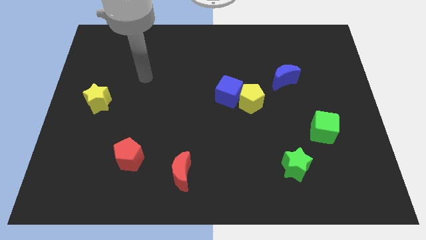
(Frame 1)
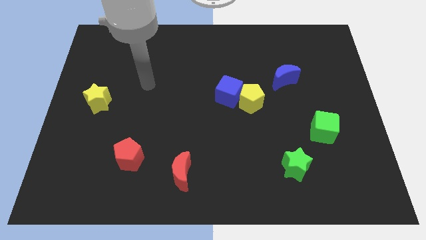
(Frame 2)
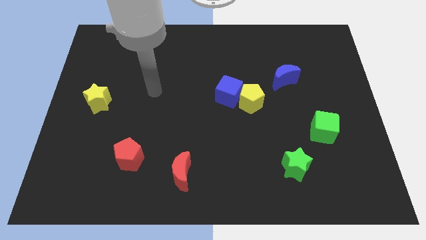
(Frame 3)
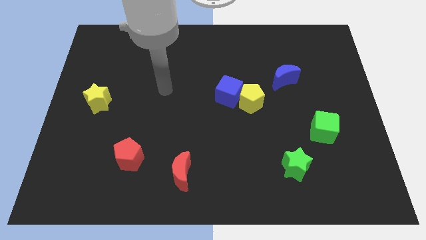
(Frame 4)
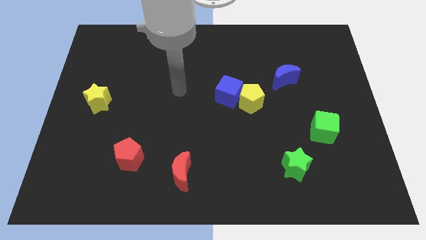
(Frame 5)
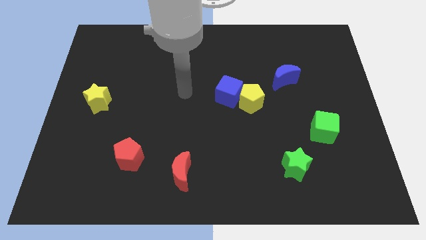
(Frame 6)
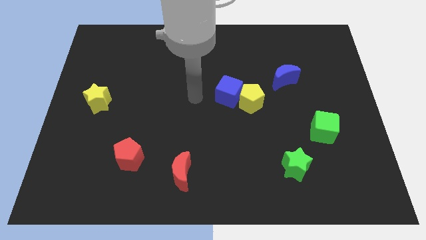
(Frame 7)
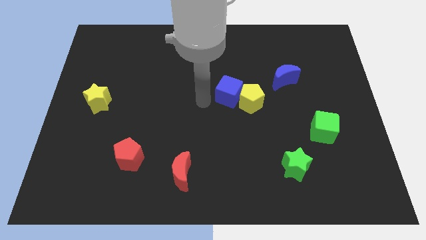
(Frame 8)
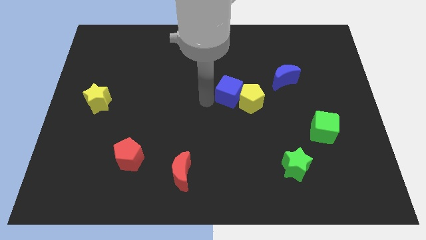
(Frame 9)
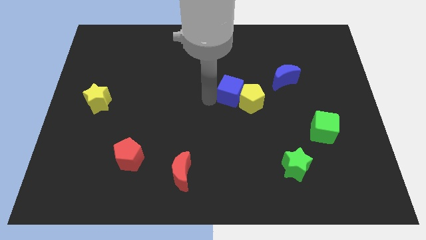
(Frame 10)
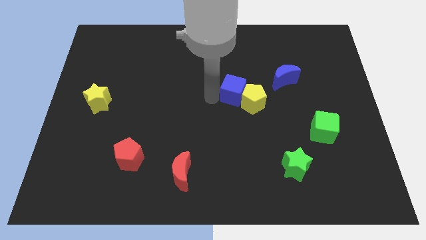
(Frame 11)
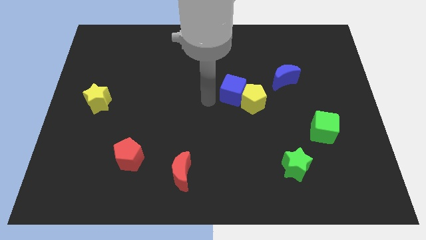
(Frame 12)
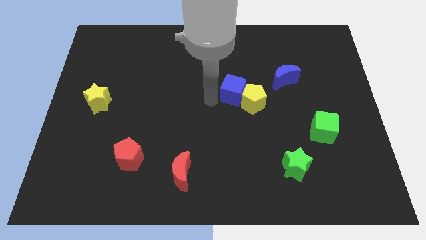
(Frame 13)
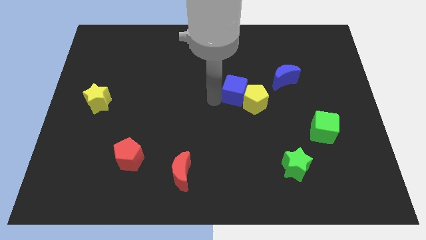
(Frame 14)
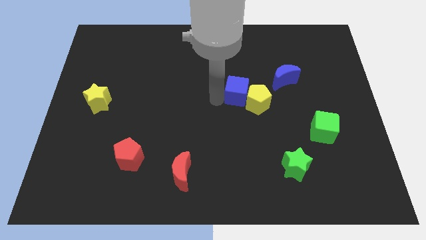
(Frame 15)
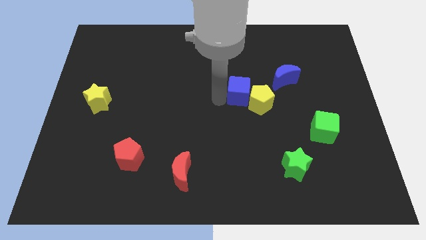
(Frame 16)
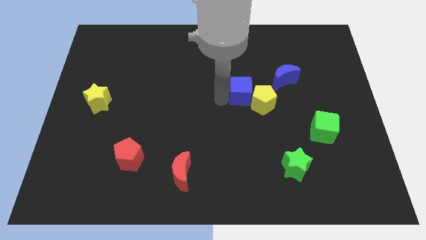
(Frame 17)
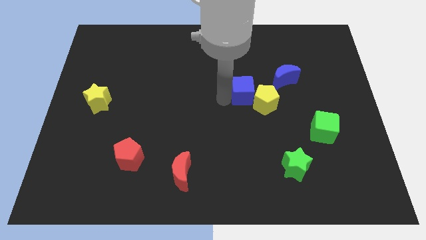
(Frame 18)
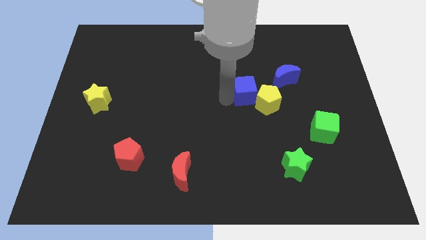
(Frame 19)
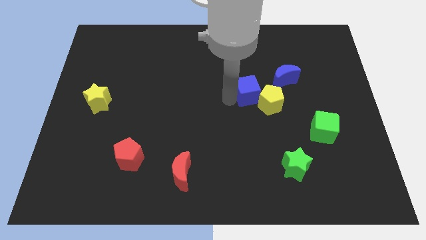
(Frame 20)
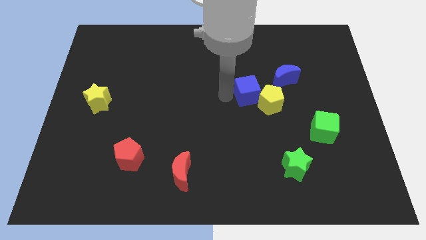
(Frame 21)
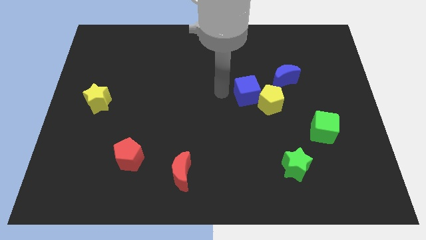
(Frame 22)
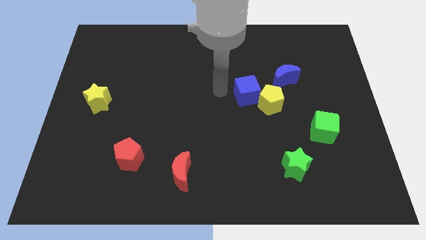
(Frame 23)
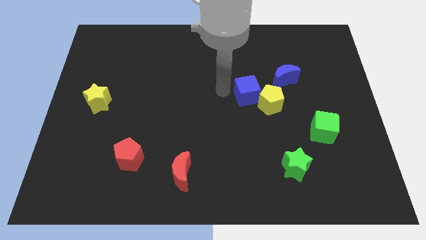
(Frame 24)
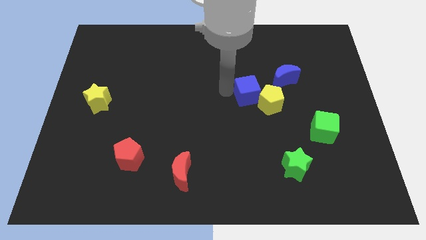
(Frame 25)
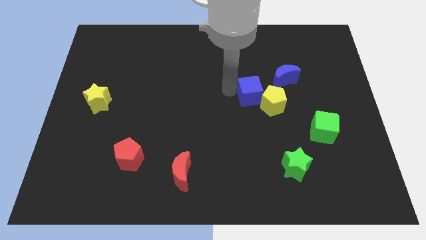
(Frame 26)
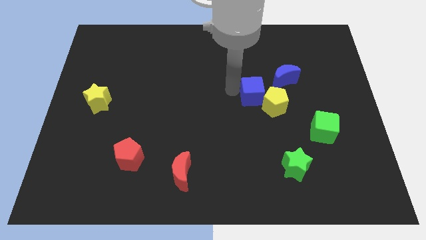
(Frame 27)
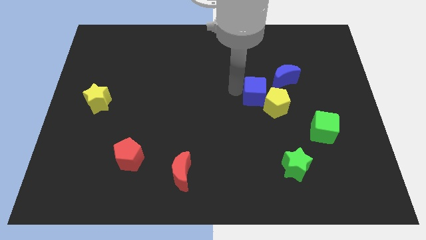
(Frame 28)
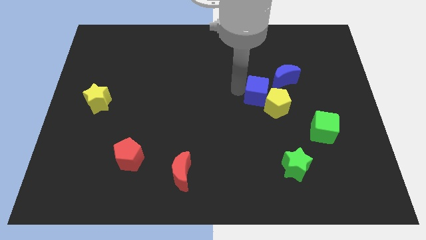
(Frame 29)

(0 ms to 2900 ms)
slightly move the blue cube right

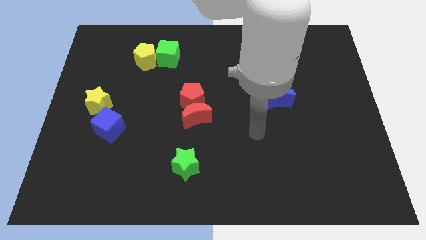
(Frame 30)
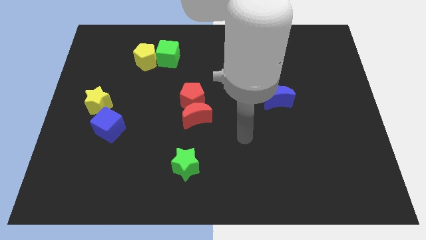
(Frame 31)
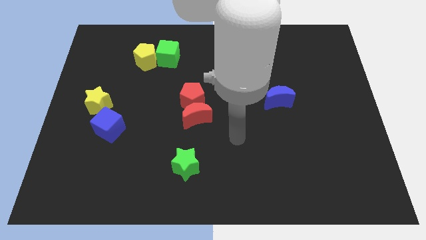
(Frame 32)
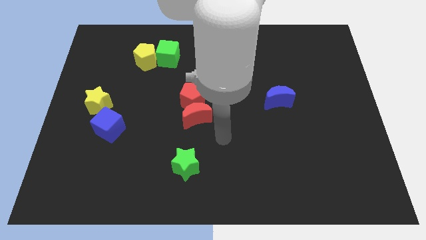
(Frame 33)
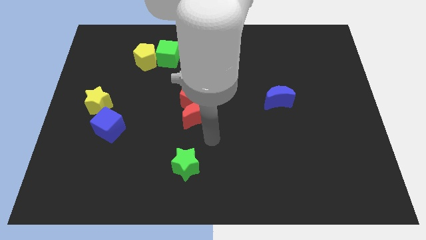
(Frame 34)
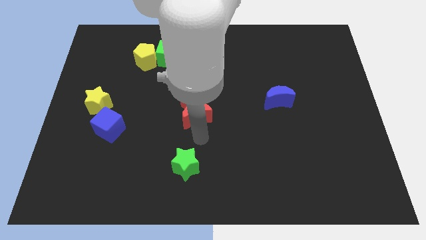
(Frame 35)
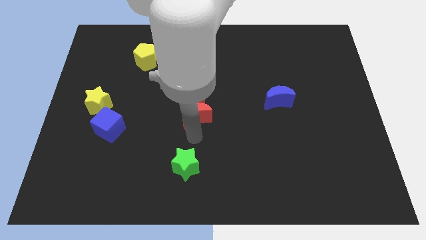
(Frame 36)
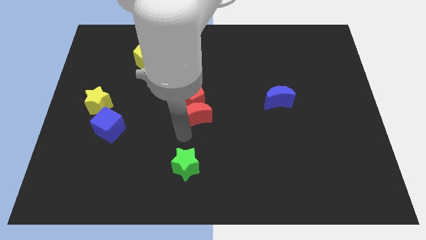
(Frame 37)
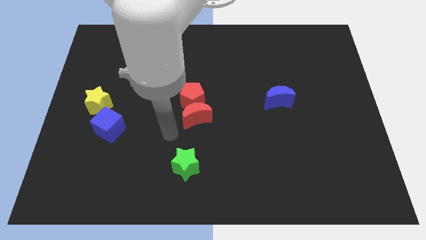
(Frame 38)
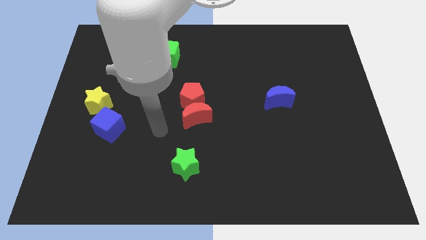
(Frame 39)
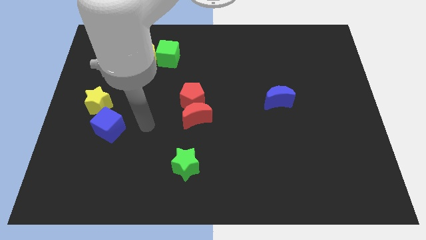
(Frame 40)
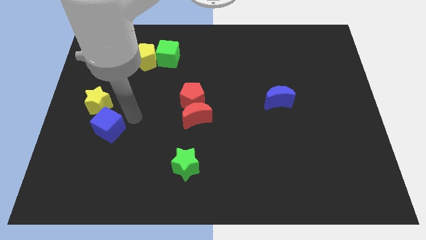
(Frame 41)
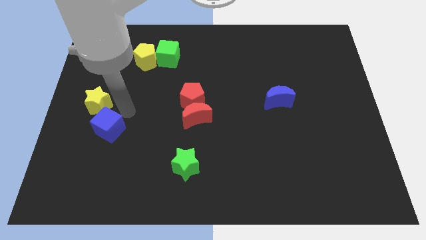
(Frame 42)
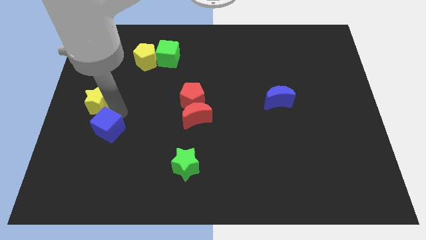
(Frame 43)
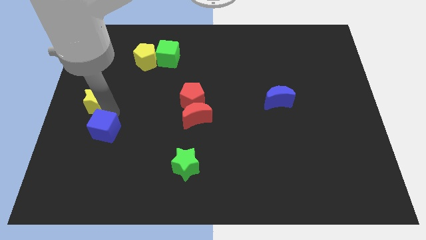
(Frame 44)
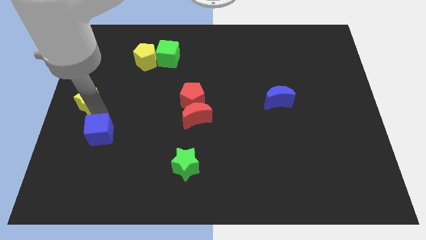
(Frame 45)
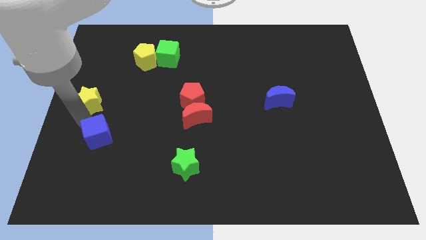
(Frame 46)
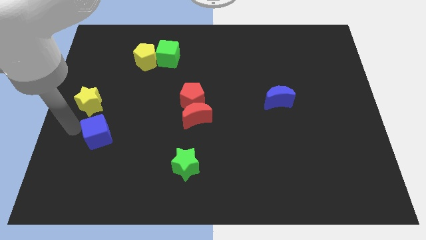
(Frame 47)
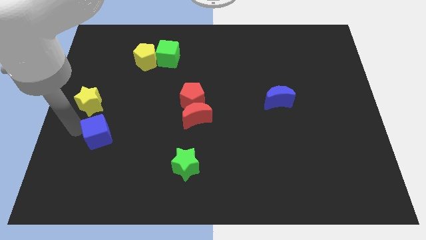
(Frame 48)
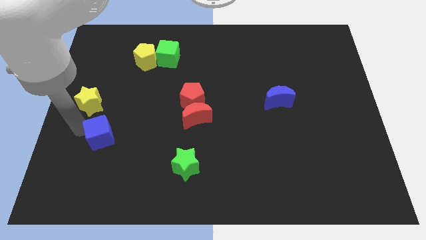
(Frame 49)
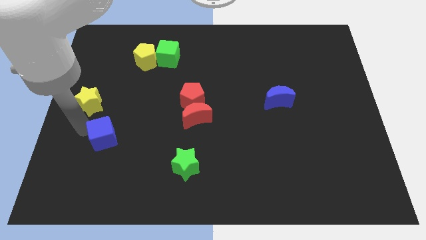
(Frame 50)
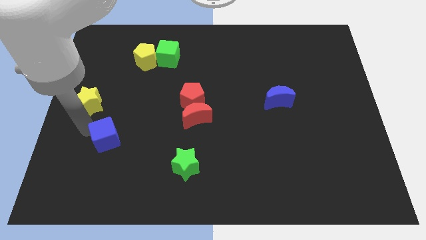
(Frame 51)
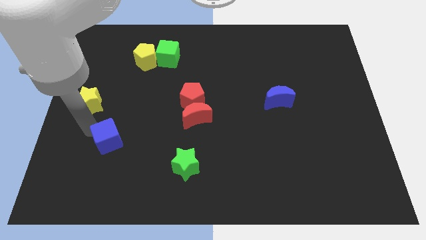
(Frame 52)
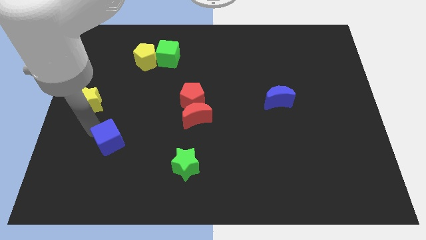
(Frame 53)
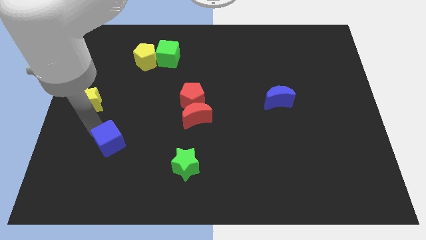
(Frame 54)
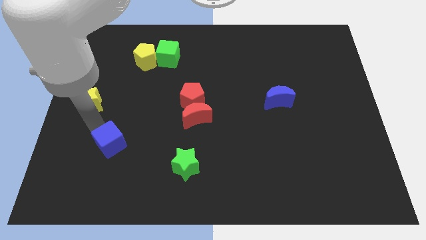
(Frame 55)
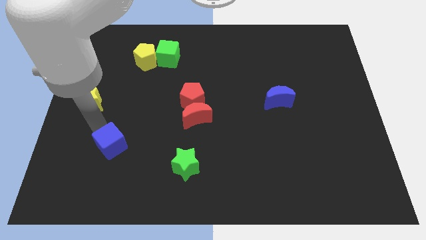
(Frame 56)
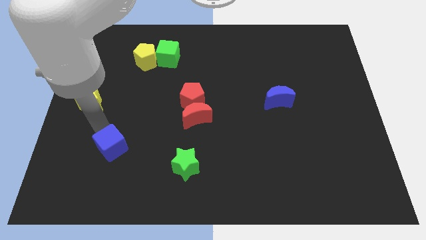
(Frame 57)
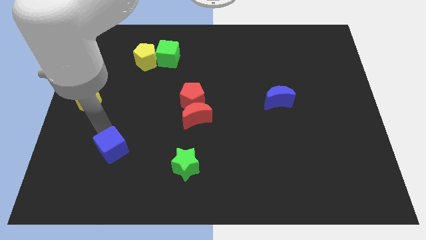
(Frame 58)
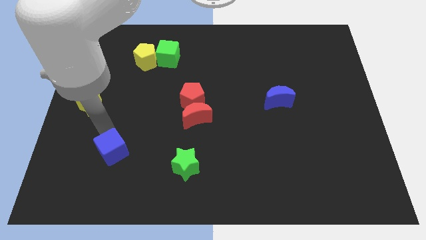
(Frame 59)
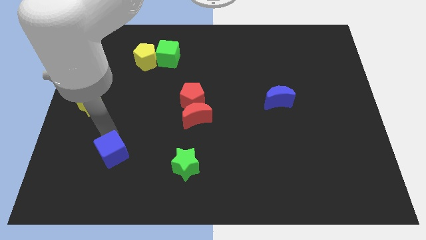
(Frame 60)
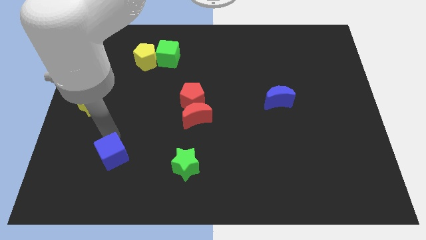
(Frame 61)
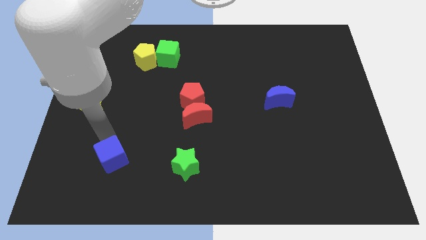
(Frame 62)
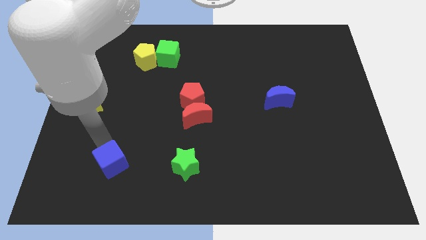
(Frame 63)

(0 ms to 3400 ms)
push the blue cube slightly downwards and right

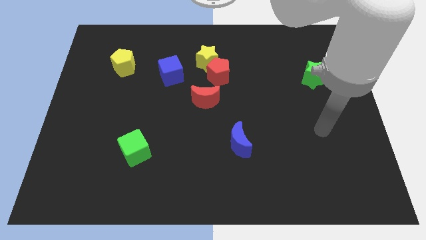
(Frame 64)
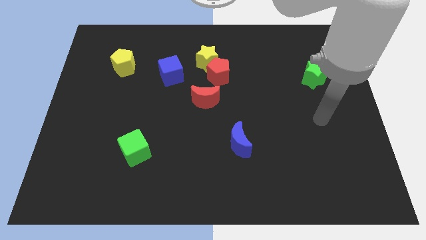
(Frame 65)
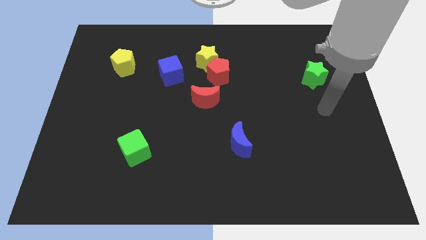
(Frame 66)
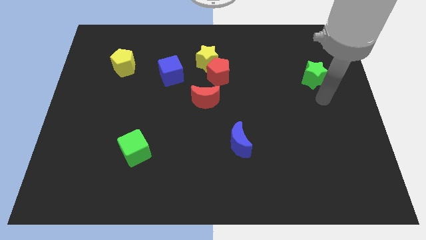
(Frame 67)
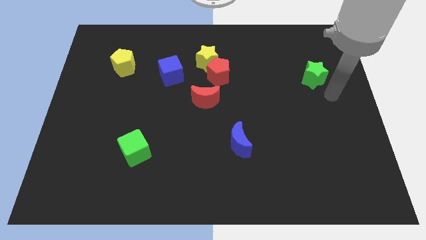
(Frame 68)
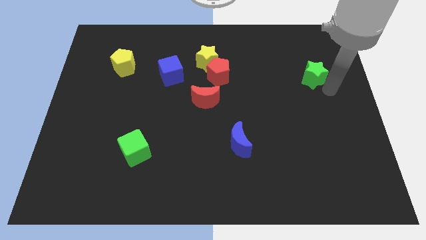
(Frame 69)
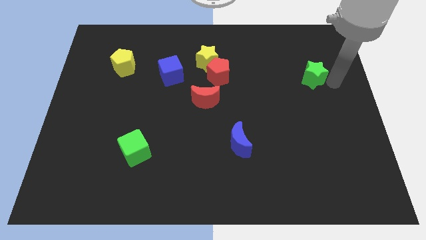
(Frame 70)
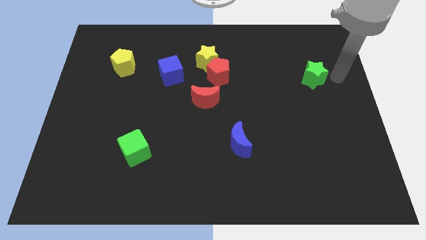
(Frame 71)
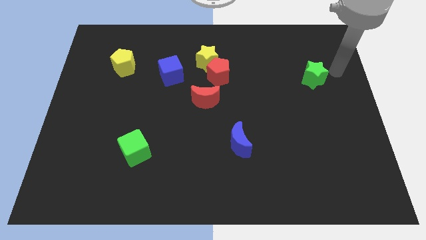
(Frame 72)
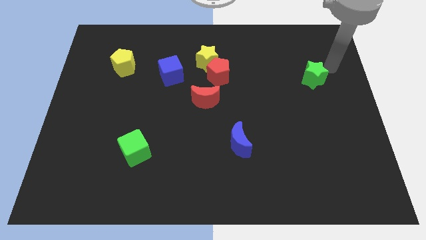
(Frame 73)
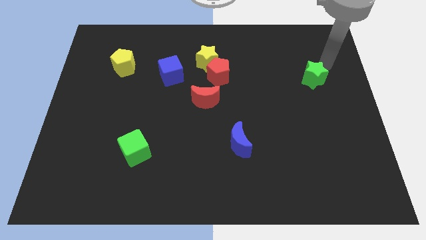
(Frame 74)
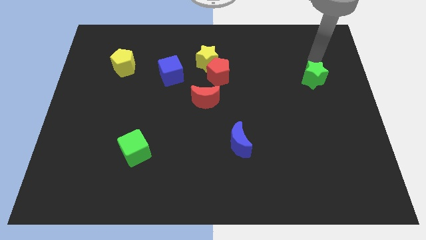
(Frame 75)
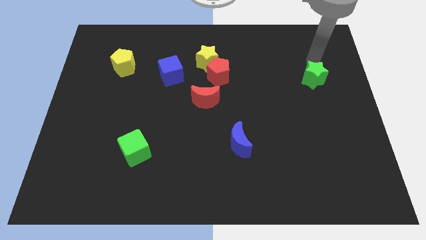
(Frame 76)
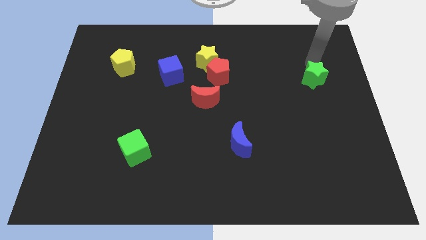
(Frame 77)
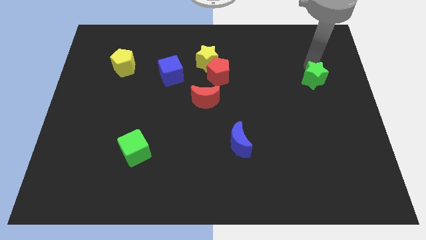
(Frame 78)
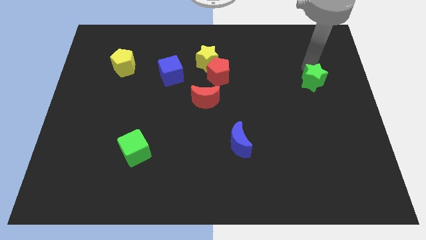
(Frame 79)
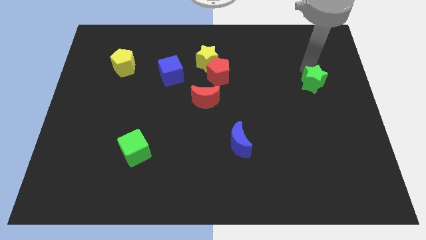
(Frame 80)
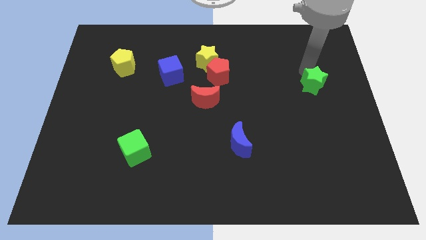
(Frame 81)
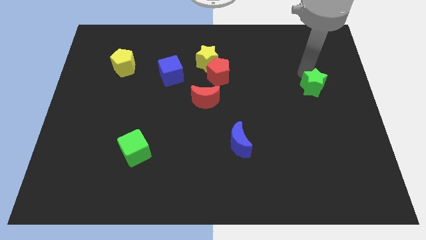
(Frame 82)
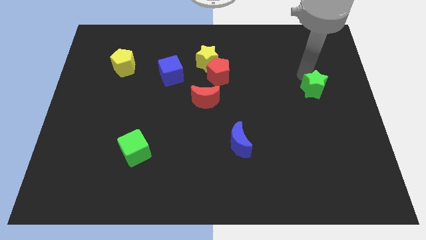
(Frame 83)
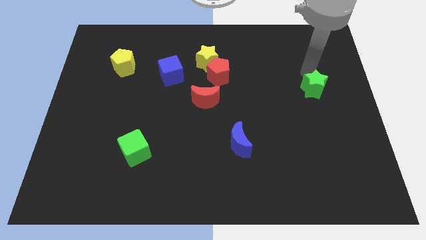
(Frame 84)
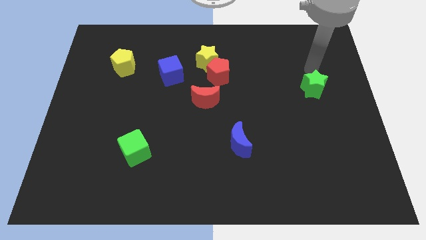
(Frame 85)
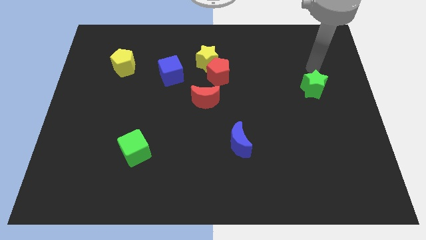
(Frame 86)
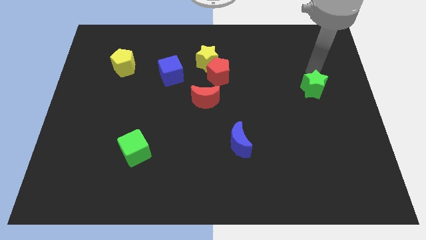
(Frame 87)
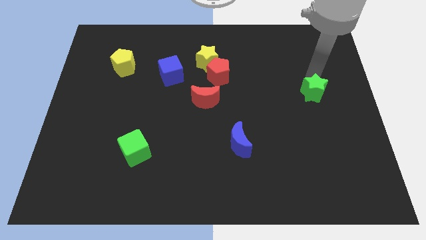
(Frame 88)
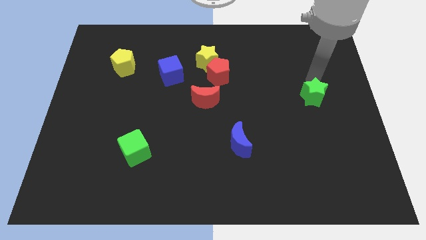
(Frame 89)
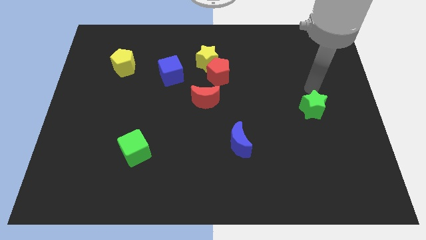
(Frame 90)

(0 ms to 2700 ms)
slide the green star a little down
